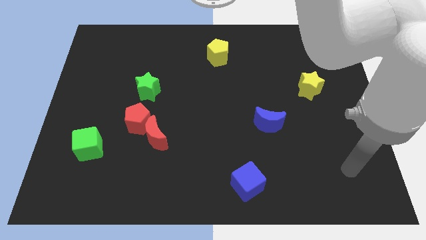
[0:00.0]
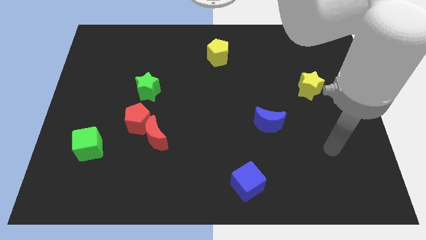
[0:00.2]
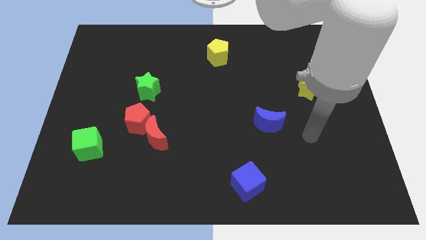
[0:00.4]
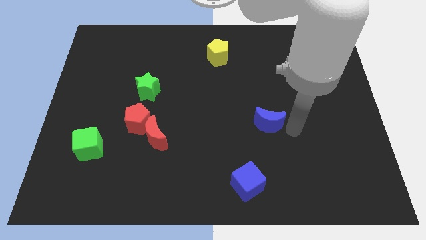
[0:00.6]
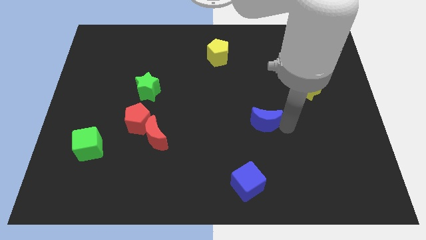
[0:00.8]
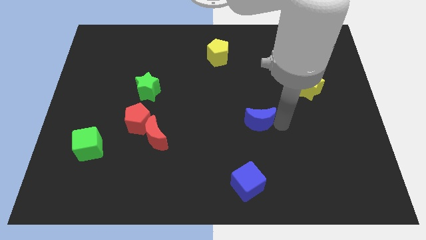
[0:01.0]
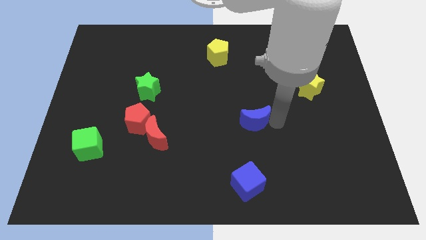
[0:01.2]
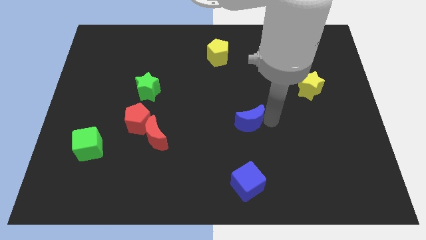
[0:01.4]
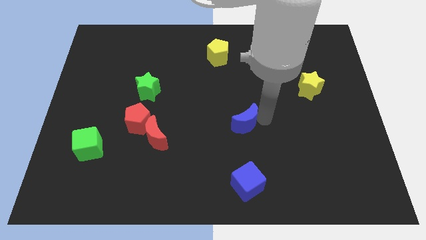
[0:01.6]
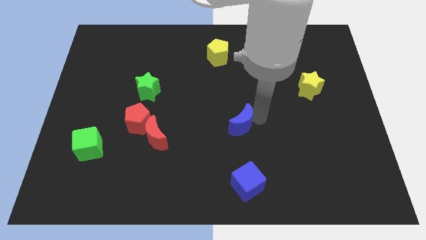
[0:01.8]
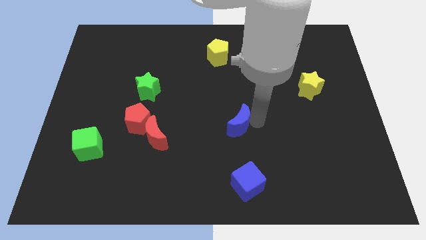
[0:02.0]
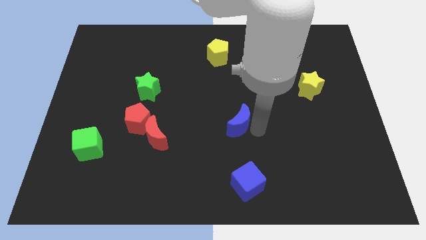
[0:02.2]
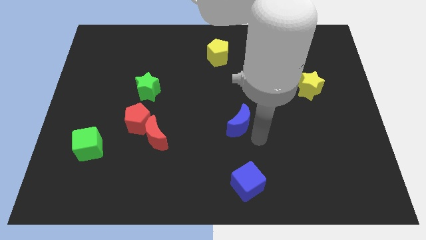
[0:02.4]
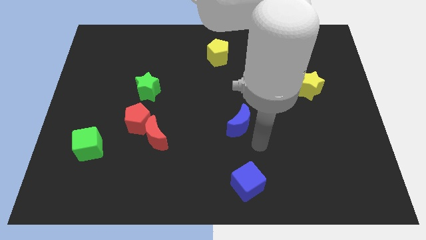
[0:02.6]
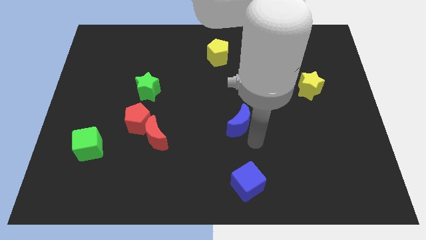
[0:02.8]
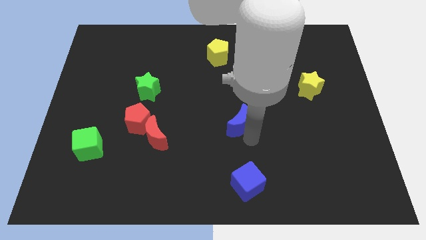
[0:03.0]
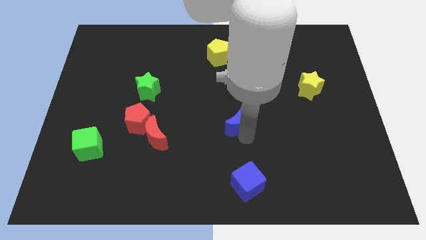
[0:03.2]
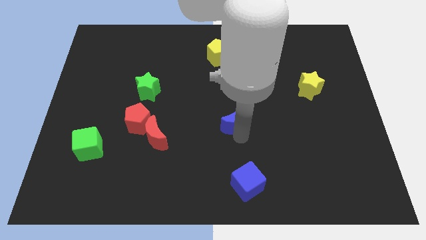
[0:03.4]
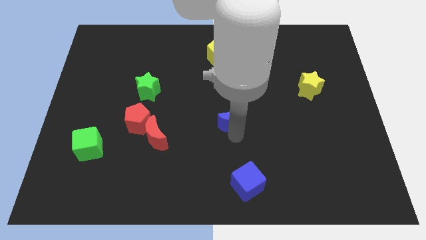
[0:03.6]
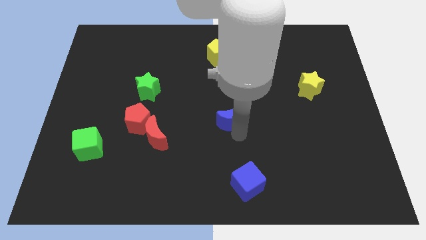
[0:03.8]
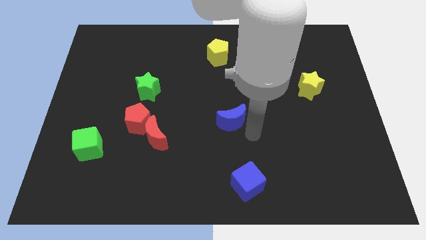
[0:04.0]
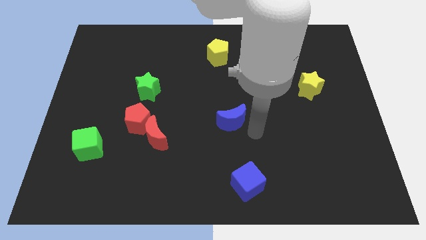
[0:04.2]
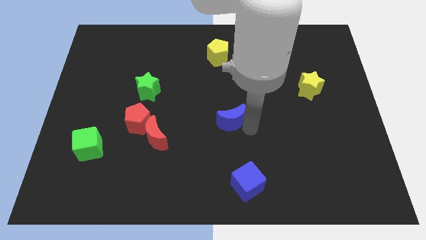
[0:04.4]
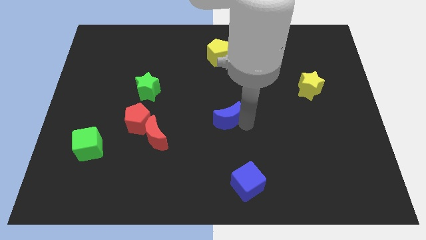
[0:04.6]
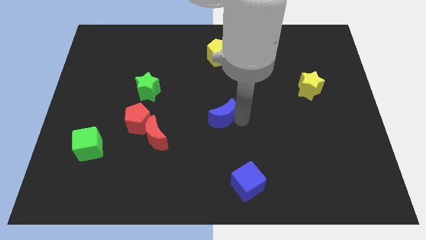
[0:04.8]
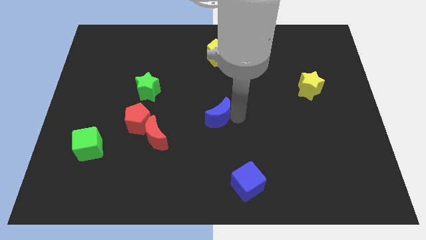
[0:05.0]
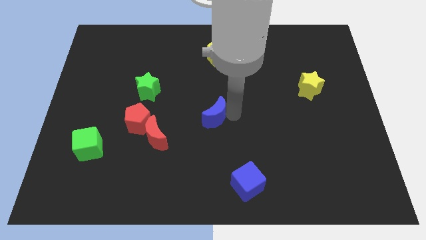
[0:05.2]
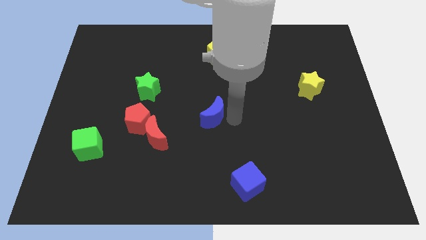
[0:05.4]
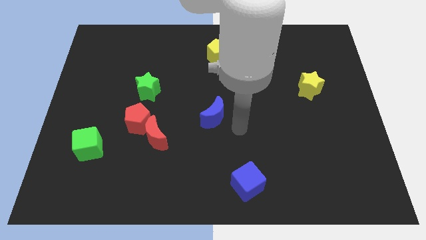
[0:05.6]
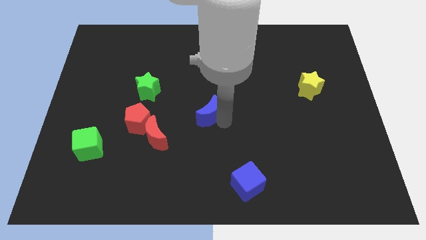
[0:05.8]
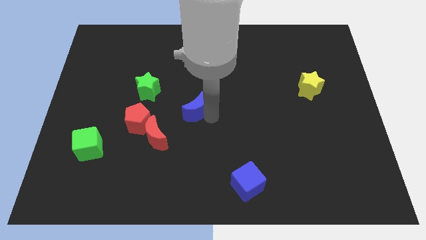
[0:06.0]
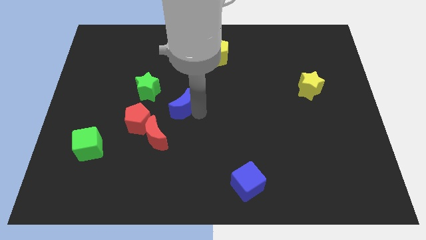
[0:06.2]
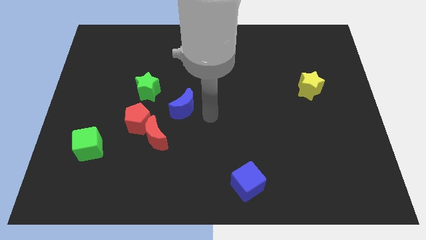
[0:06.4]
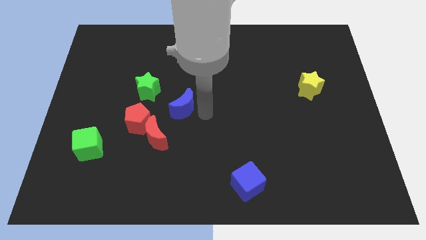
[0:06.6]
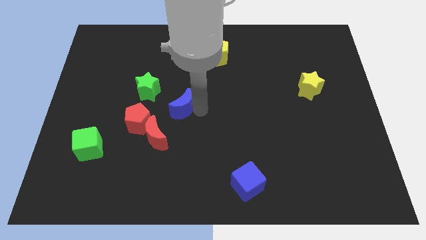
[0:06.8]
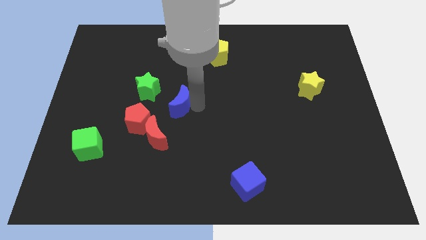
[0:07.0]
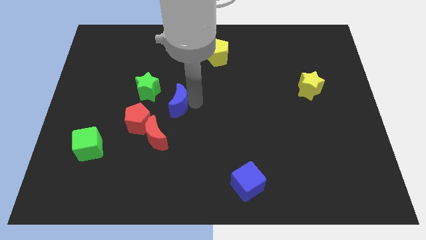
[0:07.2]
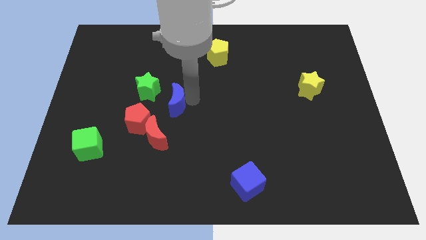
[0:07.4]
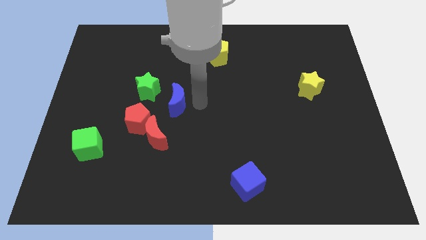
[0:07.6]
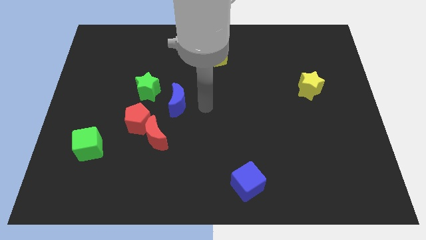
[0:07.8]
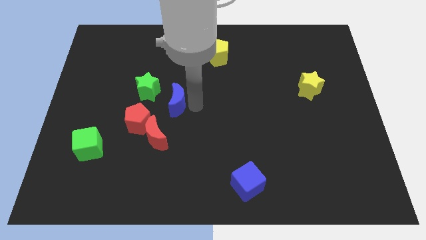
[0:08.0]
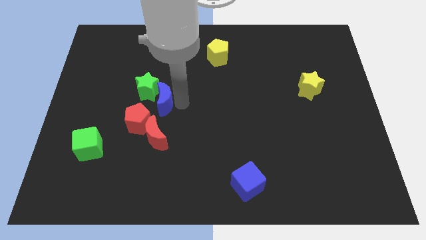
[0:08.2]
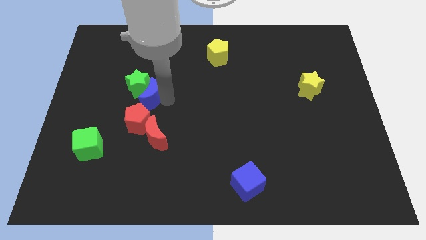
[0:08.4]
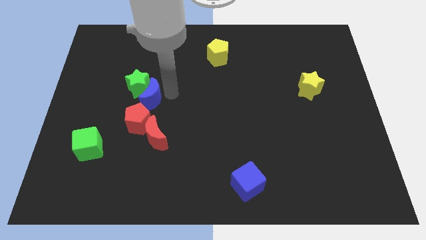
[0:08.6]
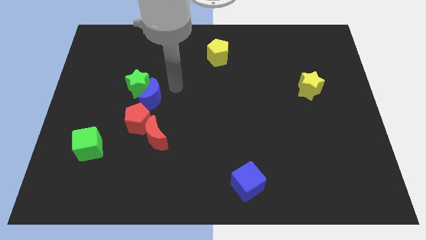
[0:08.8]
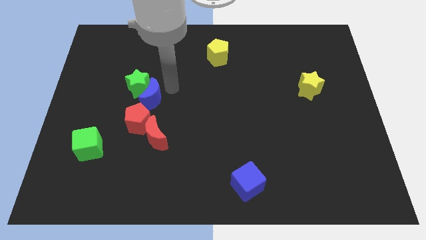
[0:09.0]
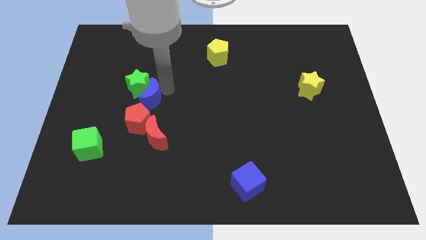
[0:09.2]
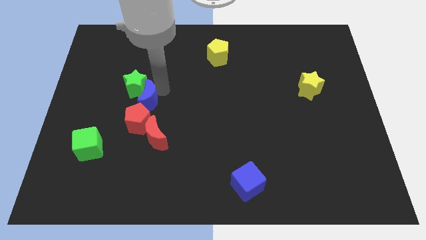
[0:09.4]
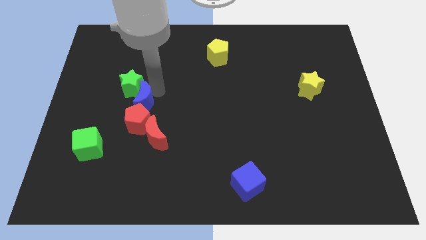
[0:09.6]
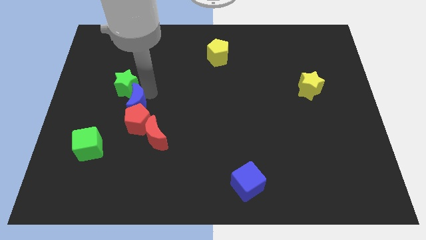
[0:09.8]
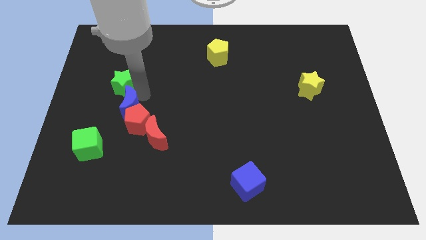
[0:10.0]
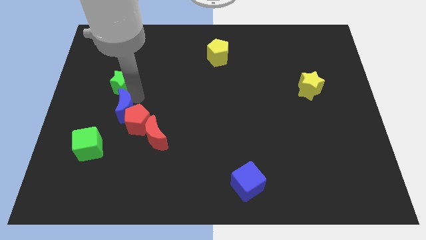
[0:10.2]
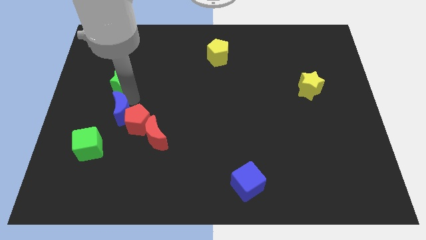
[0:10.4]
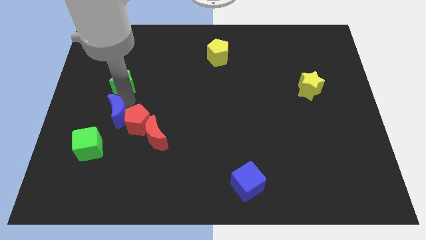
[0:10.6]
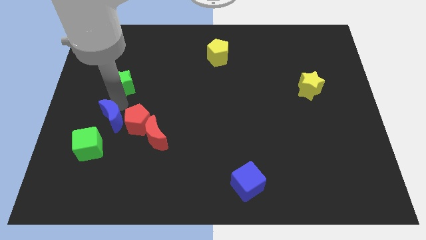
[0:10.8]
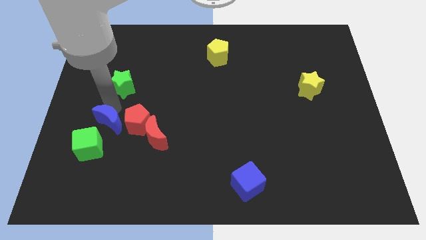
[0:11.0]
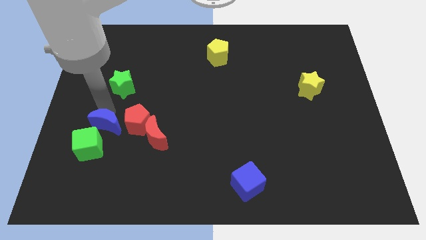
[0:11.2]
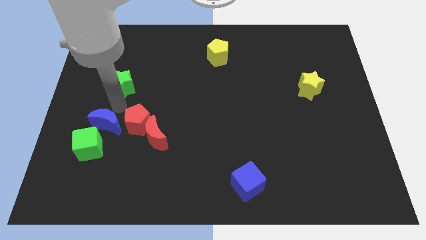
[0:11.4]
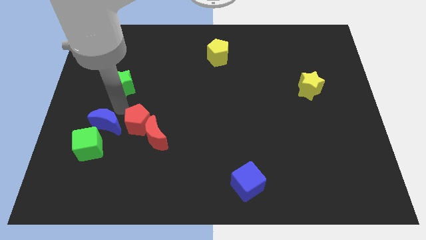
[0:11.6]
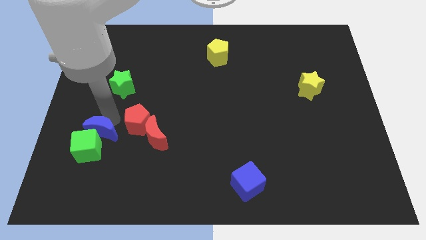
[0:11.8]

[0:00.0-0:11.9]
push the blue moon towards the green cube

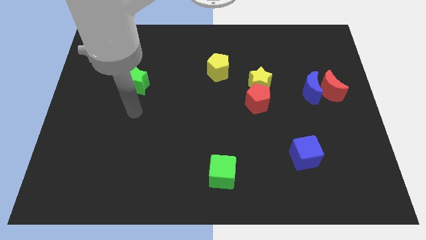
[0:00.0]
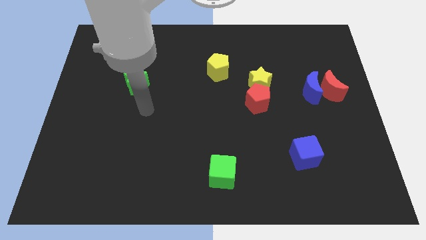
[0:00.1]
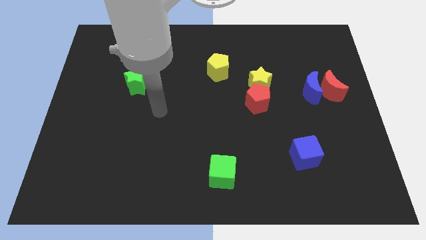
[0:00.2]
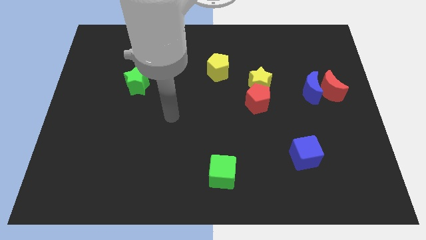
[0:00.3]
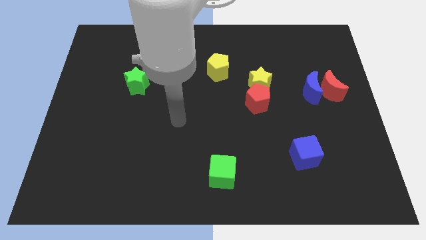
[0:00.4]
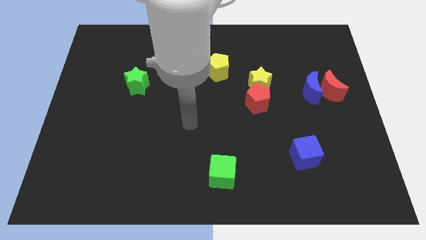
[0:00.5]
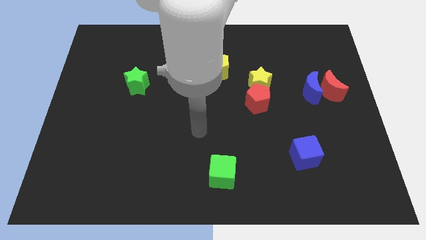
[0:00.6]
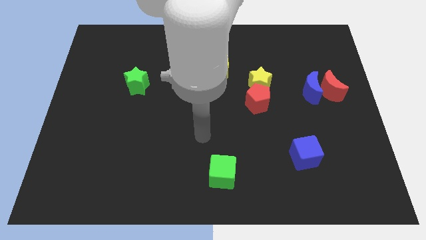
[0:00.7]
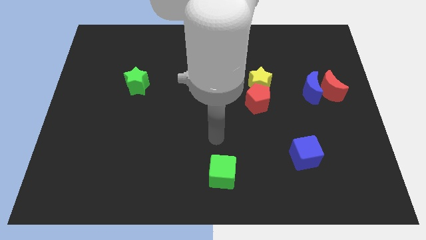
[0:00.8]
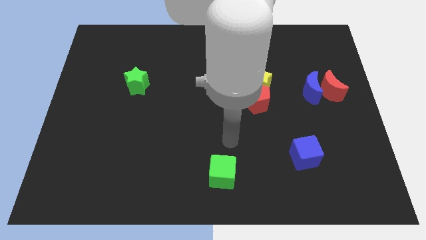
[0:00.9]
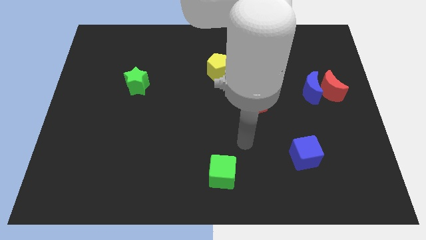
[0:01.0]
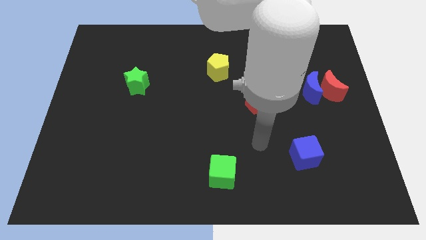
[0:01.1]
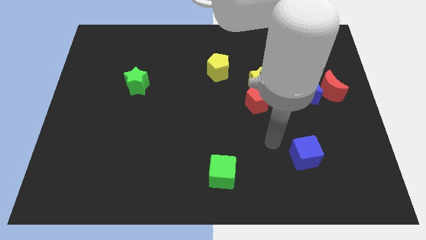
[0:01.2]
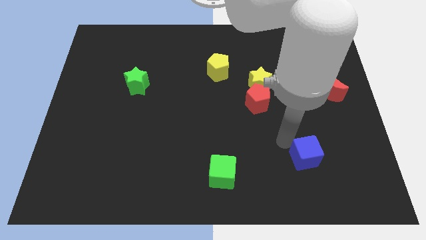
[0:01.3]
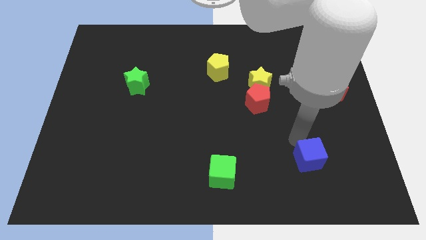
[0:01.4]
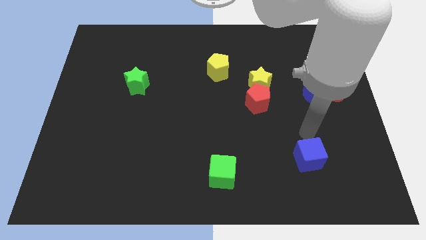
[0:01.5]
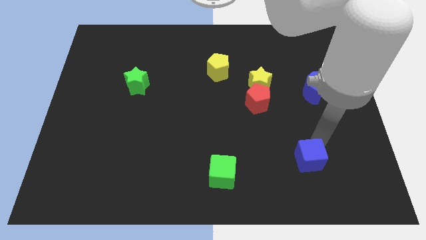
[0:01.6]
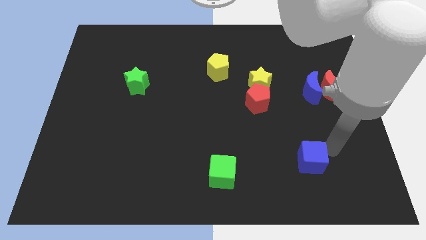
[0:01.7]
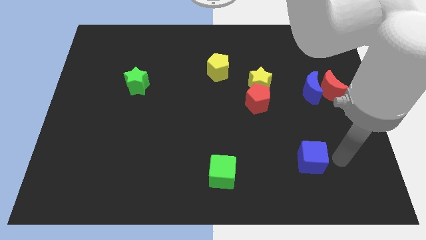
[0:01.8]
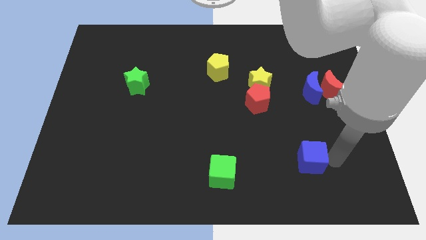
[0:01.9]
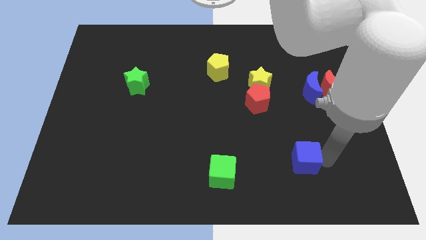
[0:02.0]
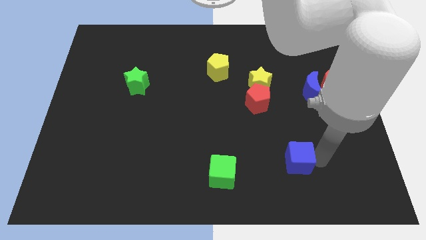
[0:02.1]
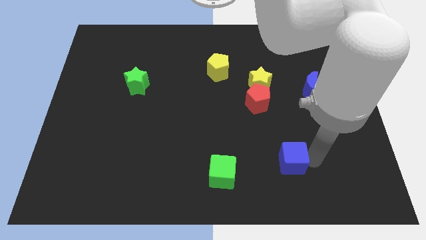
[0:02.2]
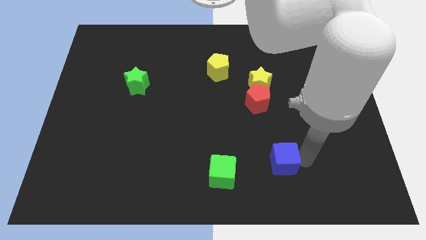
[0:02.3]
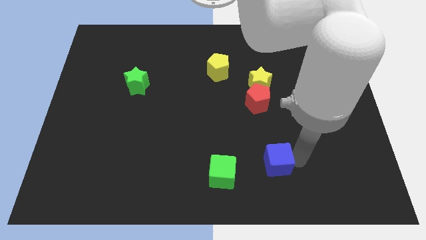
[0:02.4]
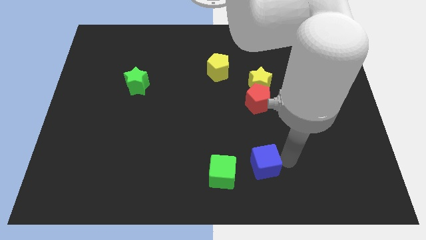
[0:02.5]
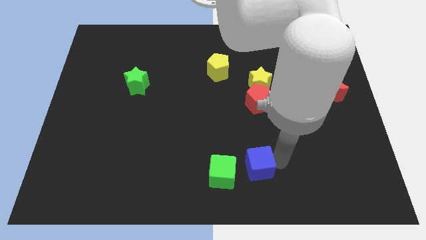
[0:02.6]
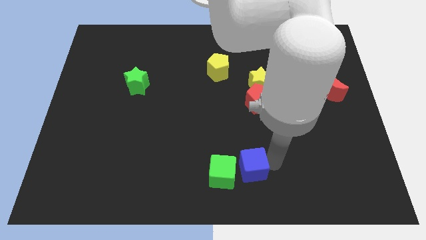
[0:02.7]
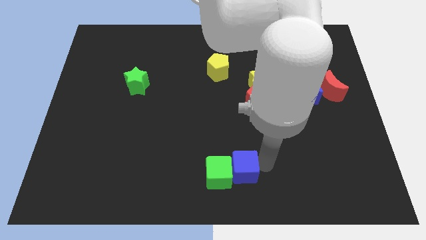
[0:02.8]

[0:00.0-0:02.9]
put the blue cube close to the green cube
